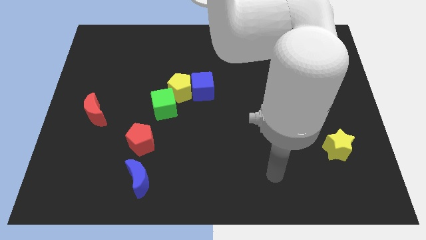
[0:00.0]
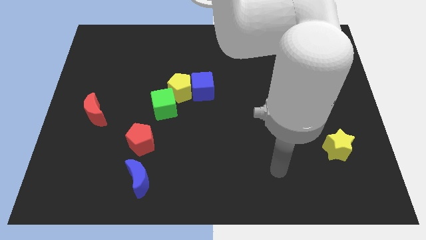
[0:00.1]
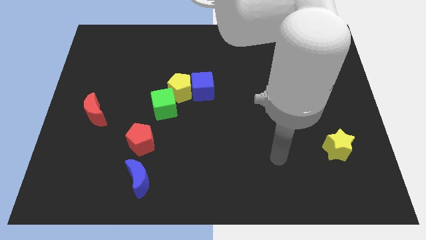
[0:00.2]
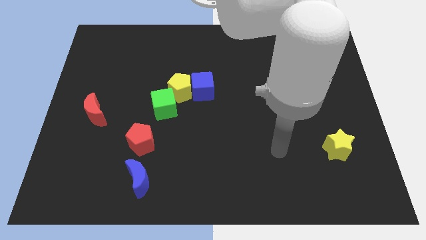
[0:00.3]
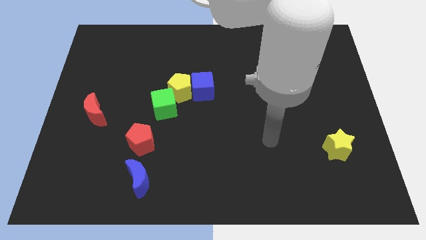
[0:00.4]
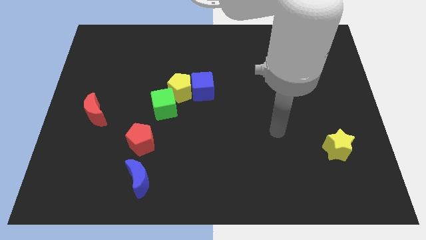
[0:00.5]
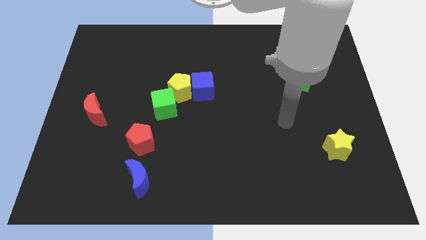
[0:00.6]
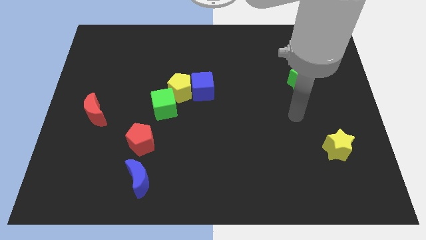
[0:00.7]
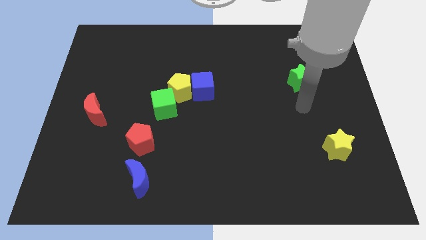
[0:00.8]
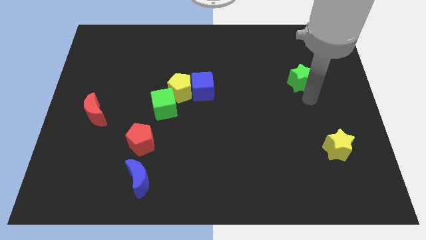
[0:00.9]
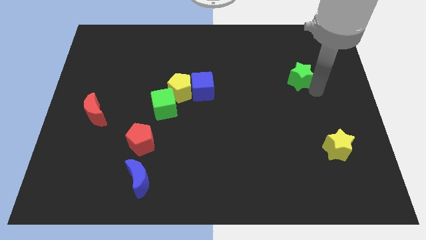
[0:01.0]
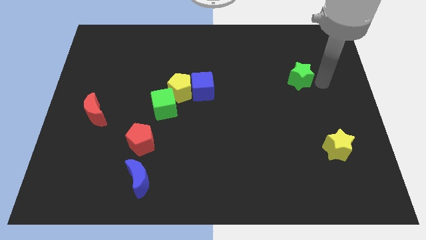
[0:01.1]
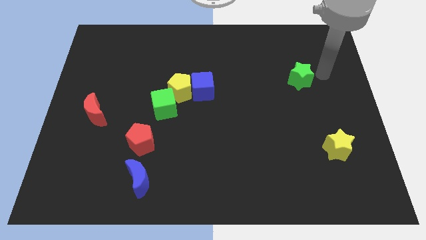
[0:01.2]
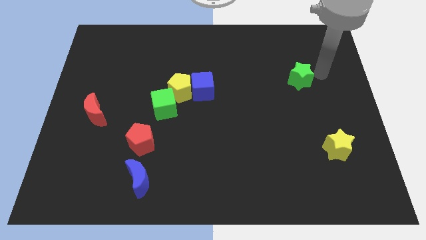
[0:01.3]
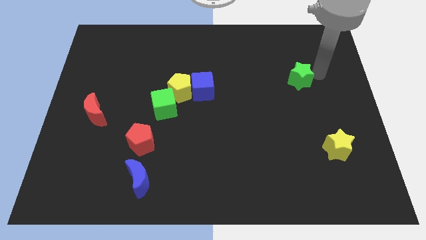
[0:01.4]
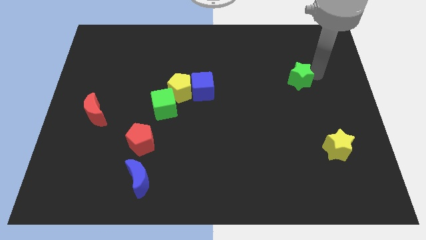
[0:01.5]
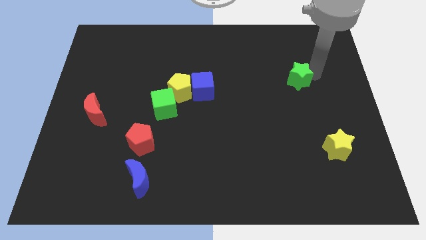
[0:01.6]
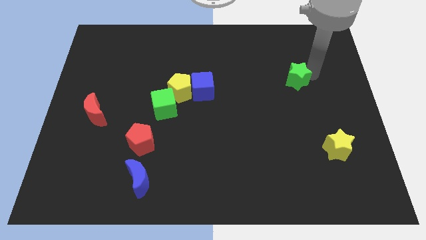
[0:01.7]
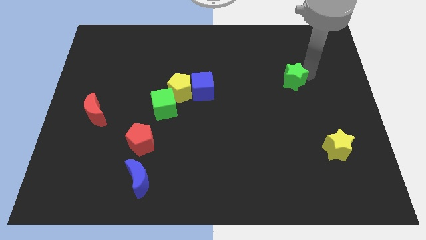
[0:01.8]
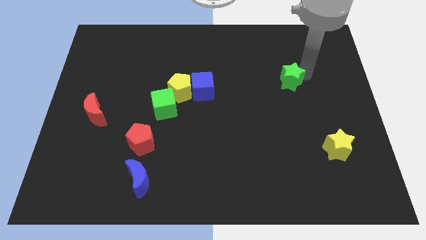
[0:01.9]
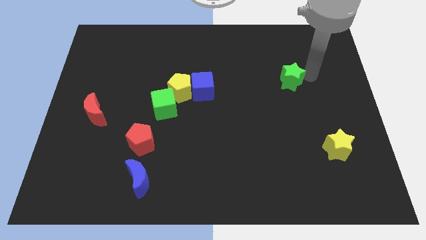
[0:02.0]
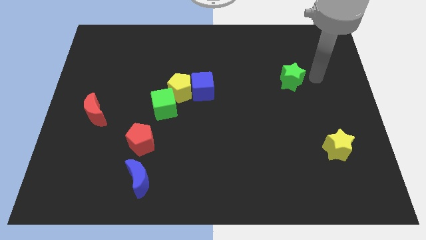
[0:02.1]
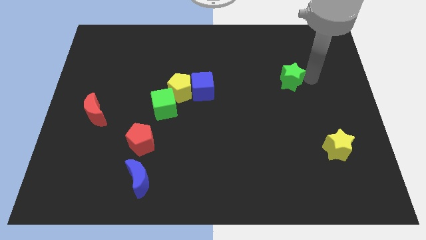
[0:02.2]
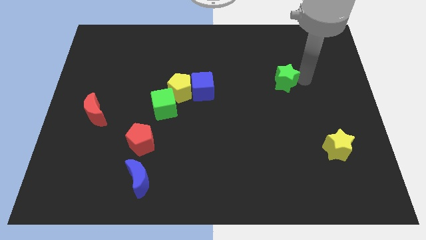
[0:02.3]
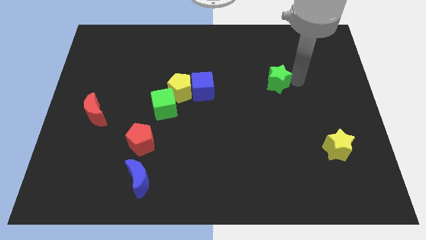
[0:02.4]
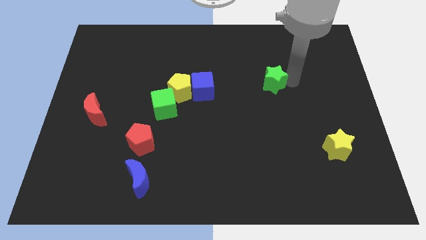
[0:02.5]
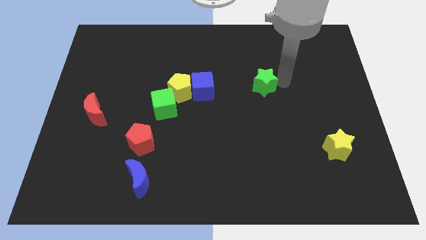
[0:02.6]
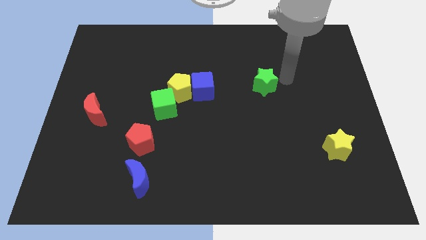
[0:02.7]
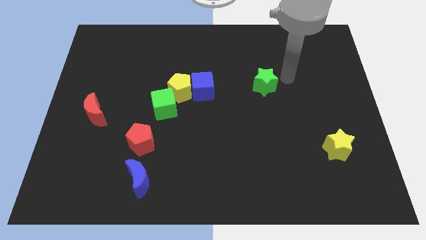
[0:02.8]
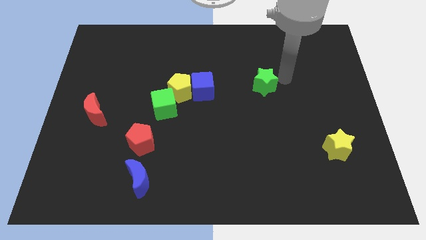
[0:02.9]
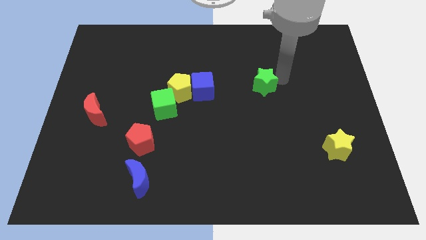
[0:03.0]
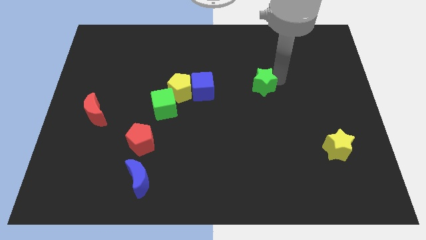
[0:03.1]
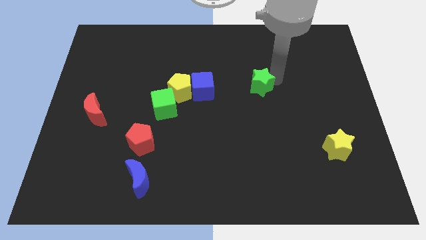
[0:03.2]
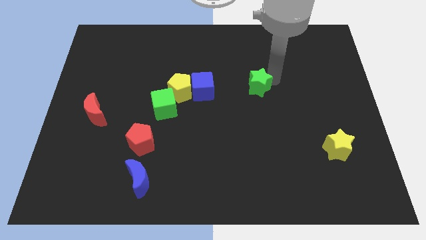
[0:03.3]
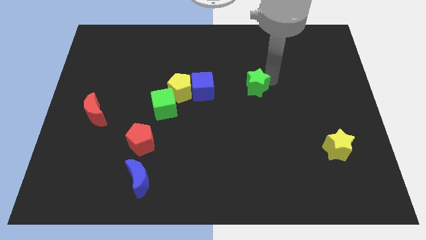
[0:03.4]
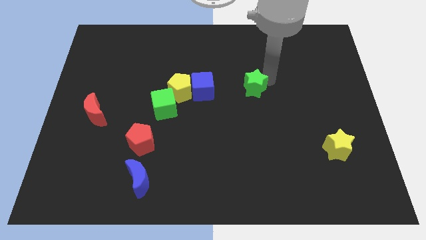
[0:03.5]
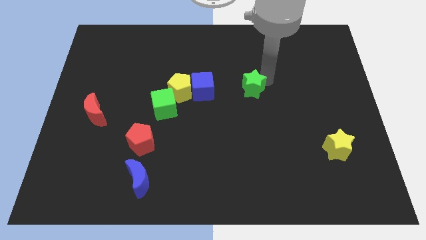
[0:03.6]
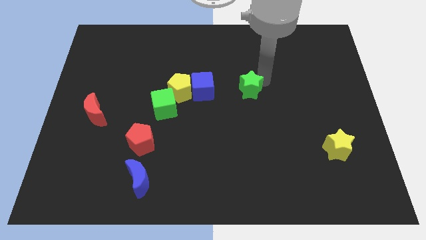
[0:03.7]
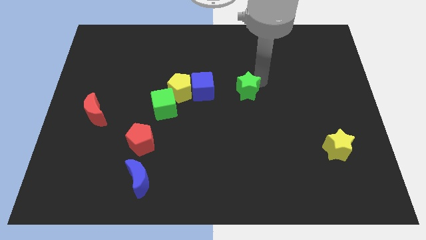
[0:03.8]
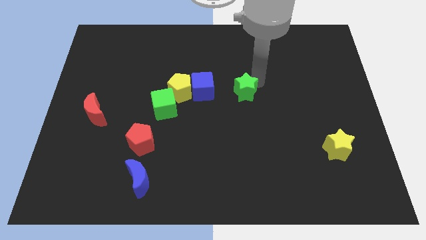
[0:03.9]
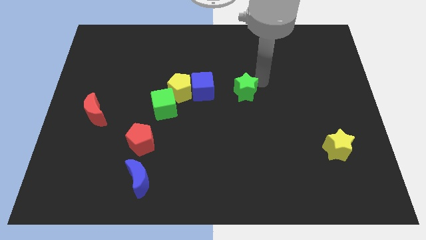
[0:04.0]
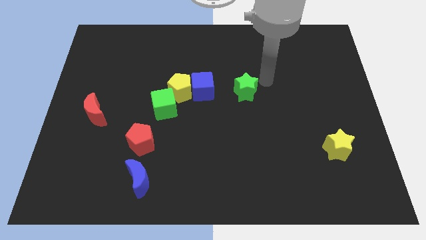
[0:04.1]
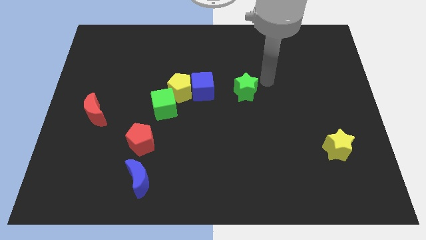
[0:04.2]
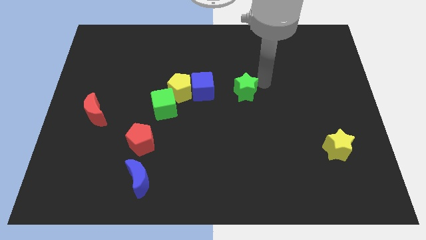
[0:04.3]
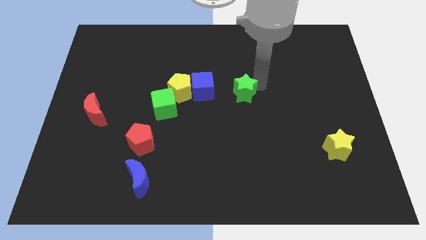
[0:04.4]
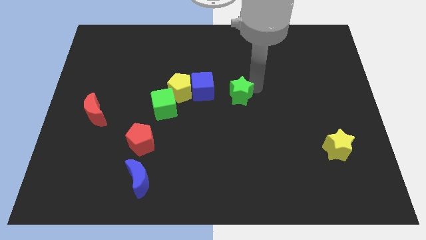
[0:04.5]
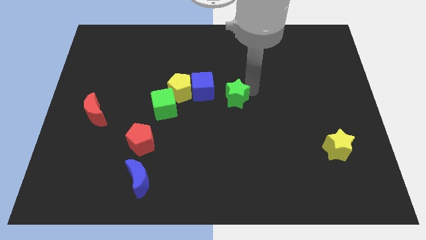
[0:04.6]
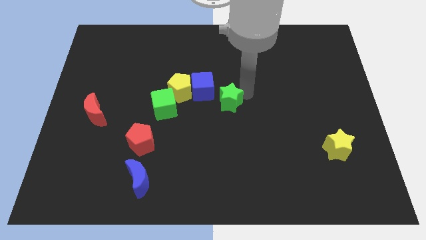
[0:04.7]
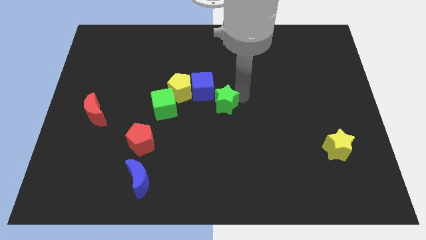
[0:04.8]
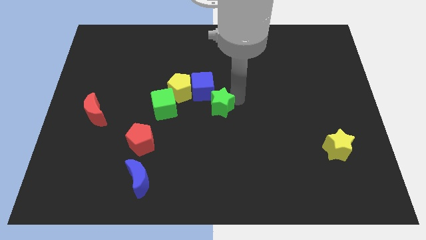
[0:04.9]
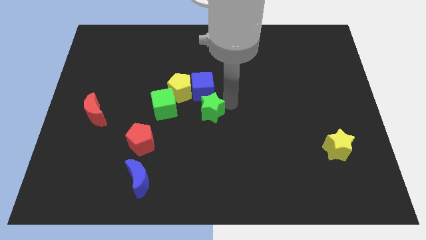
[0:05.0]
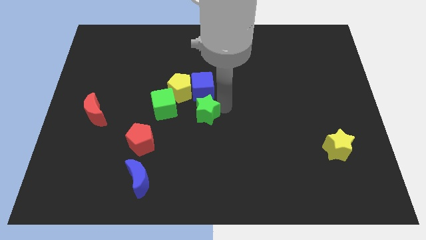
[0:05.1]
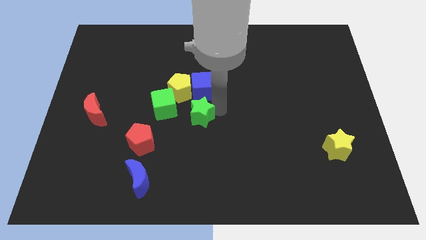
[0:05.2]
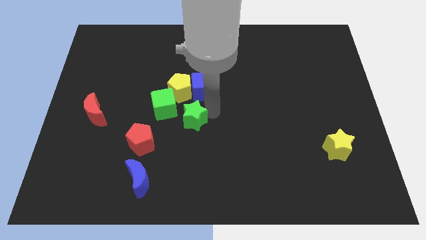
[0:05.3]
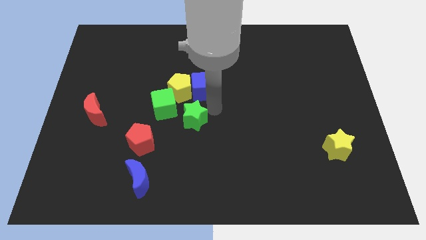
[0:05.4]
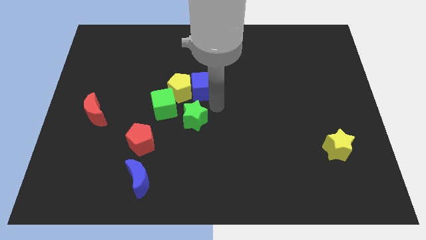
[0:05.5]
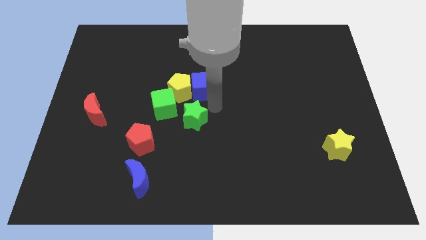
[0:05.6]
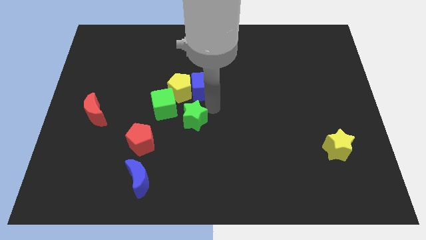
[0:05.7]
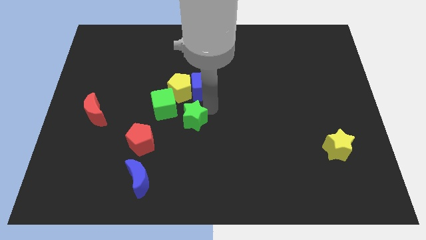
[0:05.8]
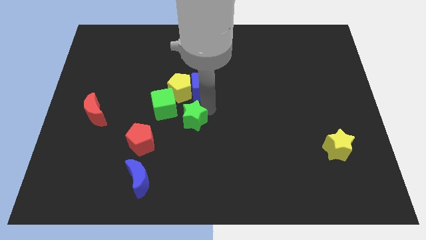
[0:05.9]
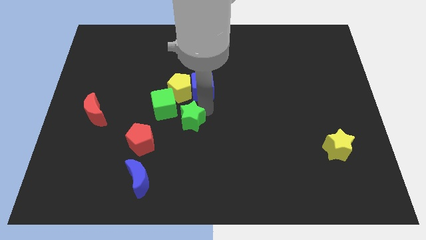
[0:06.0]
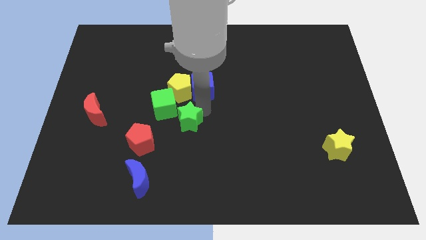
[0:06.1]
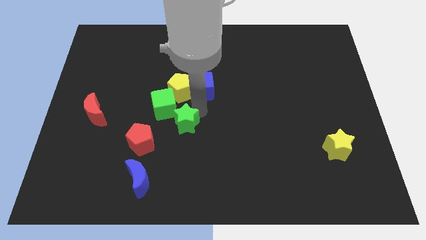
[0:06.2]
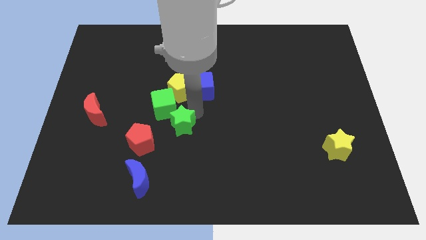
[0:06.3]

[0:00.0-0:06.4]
move the green star below the green cube

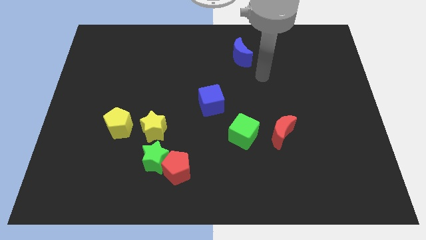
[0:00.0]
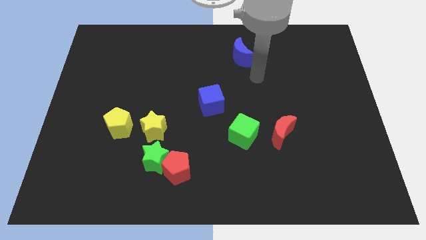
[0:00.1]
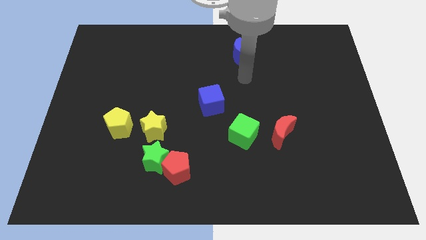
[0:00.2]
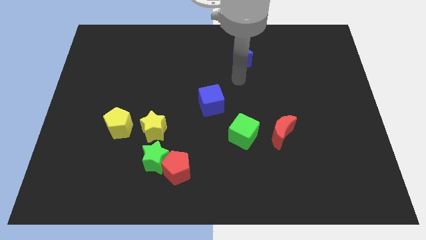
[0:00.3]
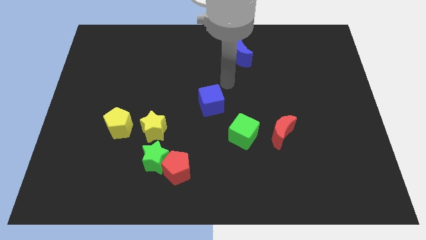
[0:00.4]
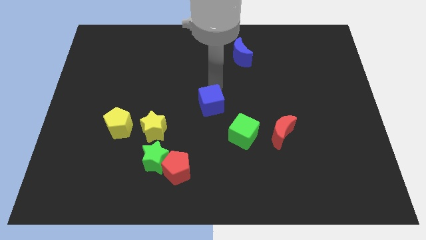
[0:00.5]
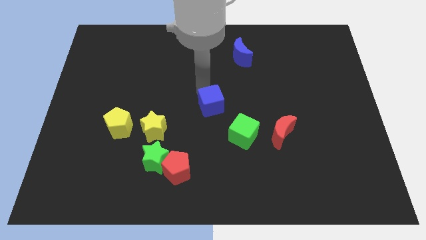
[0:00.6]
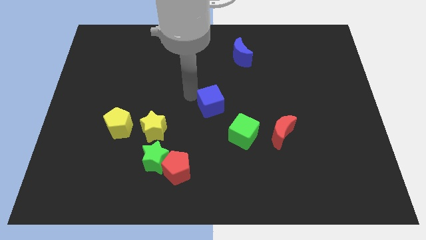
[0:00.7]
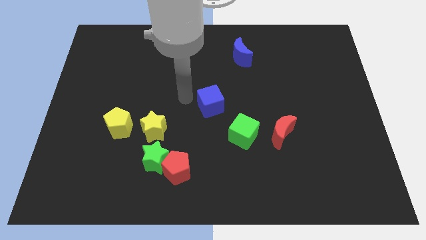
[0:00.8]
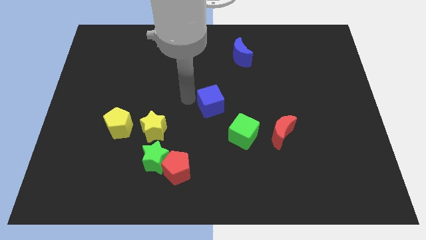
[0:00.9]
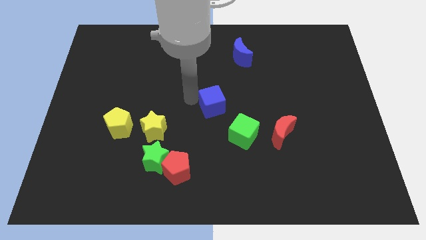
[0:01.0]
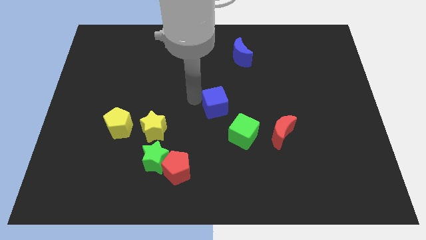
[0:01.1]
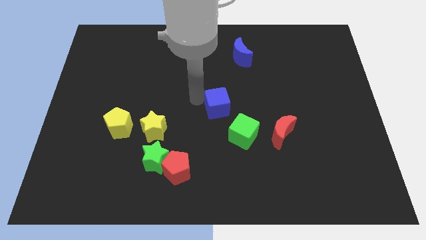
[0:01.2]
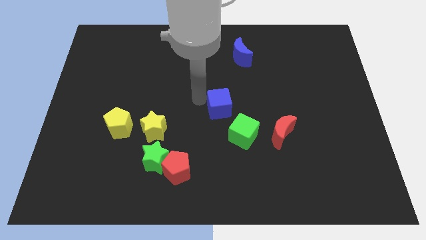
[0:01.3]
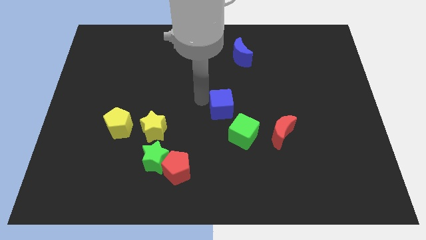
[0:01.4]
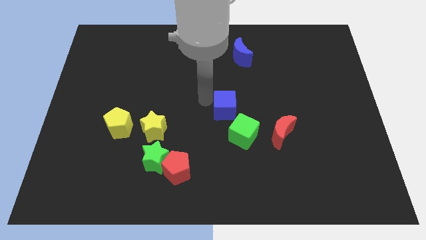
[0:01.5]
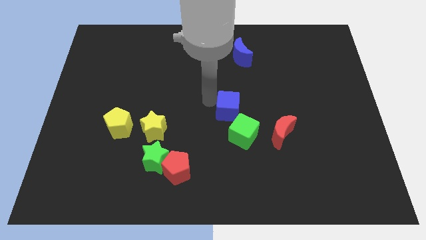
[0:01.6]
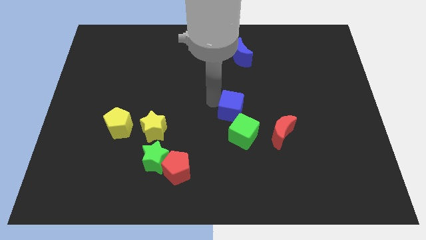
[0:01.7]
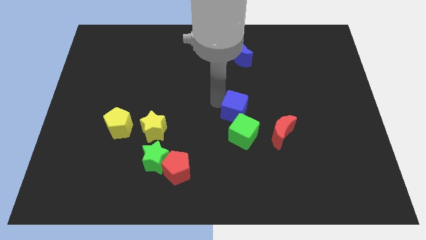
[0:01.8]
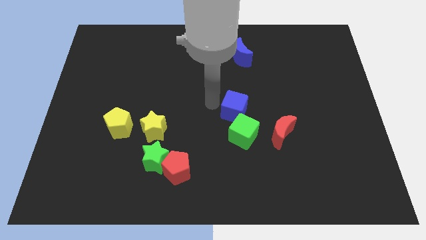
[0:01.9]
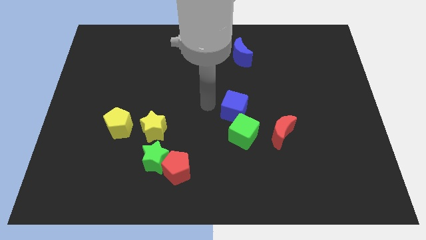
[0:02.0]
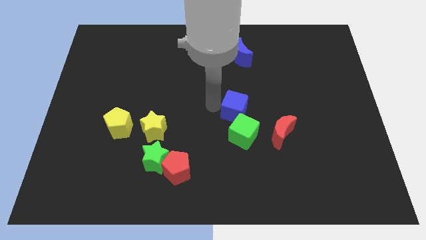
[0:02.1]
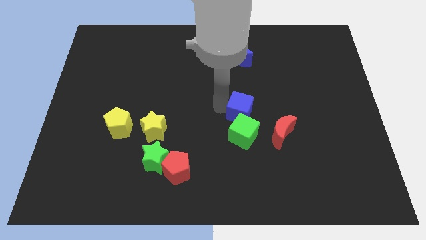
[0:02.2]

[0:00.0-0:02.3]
move the blue cube diagonally up and to the right of the green cube
